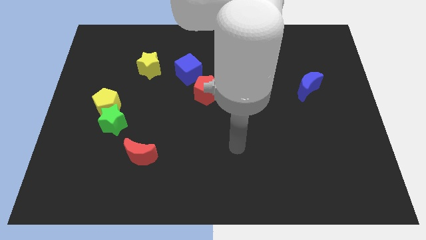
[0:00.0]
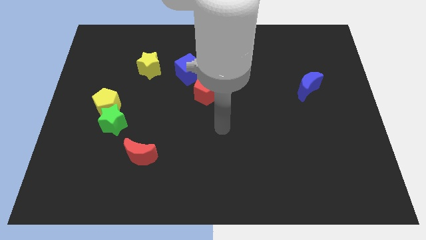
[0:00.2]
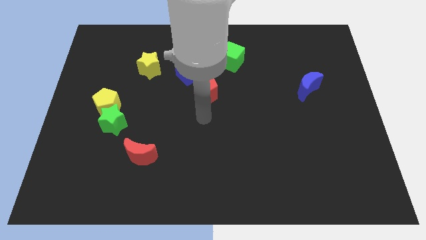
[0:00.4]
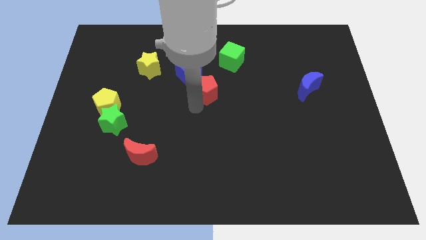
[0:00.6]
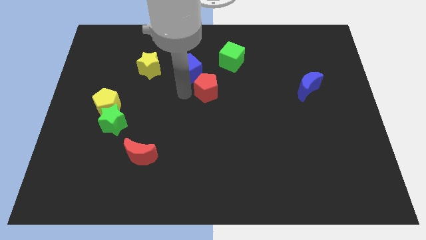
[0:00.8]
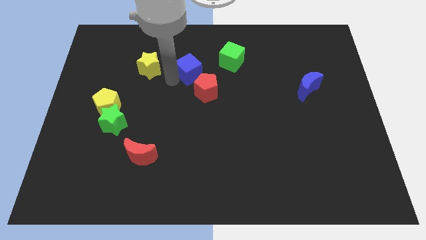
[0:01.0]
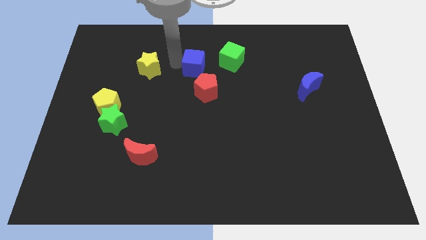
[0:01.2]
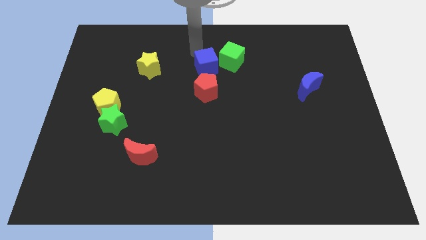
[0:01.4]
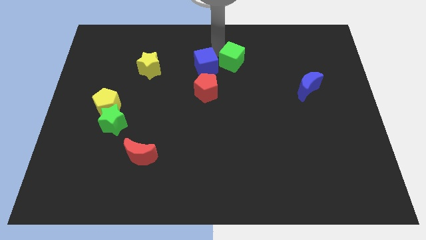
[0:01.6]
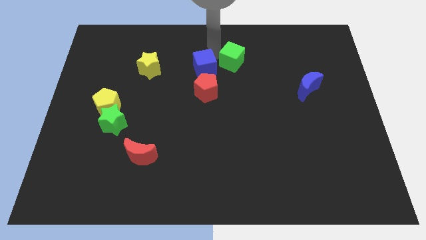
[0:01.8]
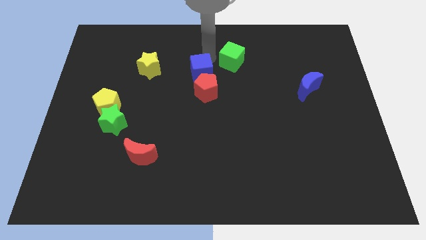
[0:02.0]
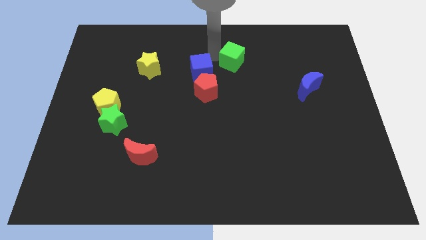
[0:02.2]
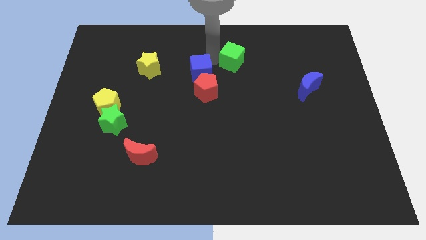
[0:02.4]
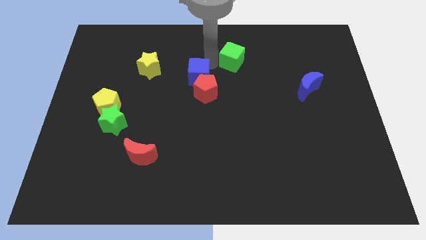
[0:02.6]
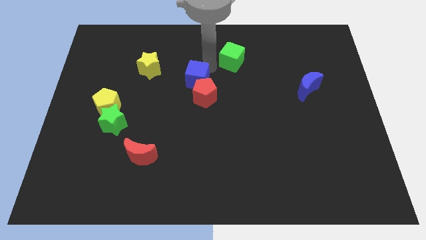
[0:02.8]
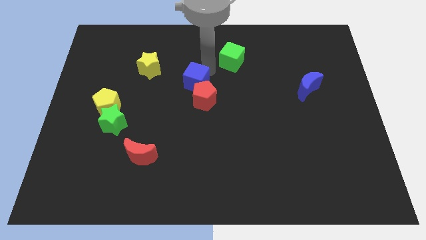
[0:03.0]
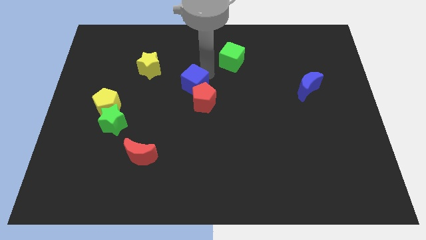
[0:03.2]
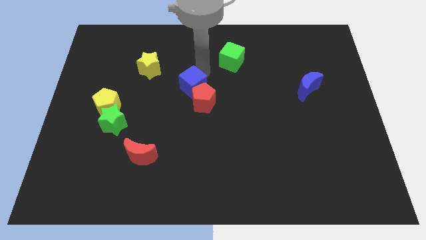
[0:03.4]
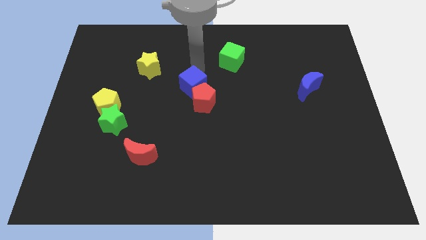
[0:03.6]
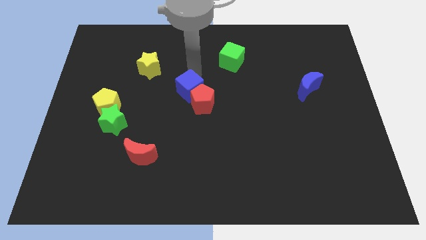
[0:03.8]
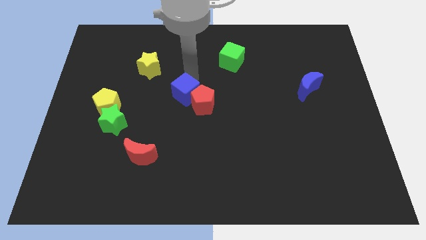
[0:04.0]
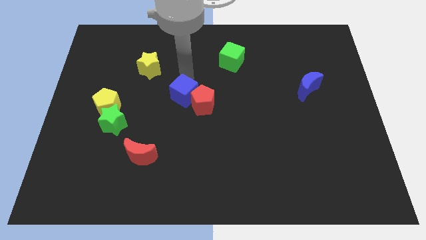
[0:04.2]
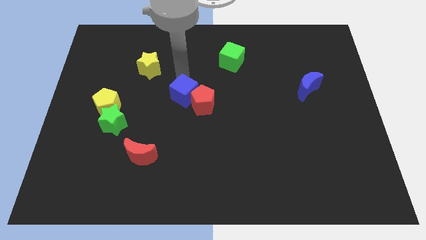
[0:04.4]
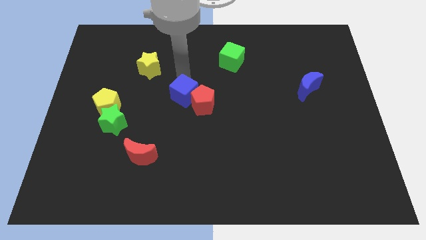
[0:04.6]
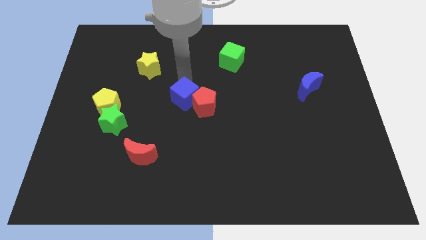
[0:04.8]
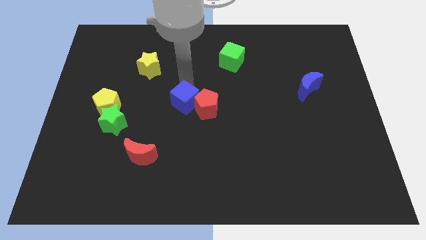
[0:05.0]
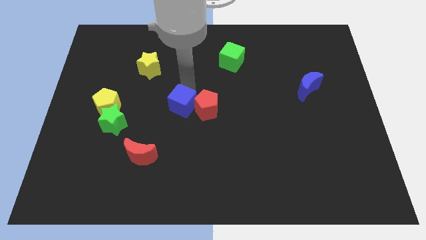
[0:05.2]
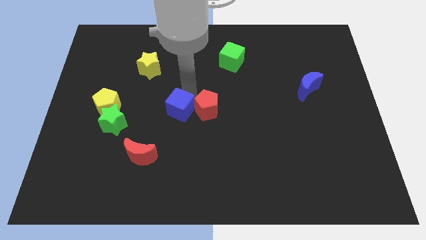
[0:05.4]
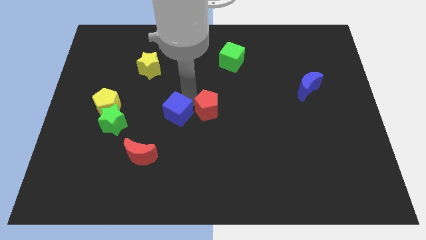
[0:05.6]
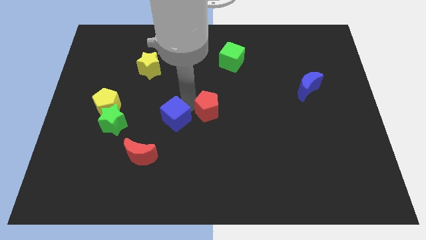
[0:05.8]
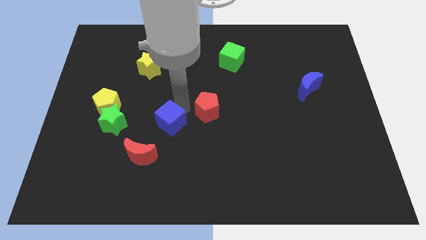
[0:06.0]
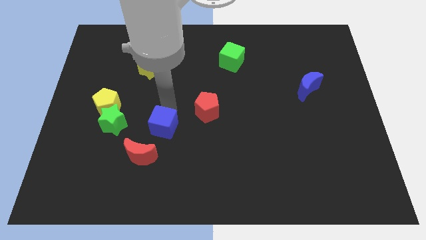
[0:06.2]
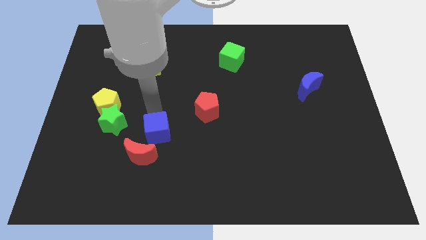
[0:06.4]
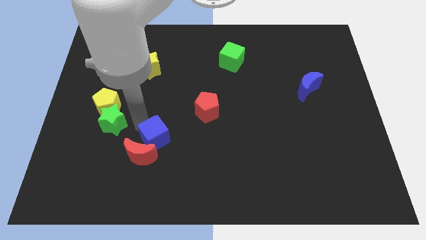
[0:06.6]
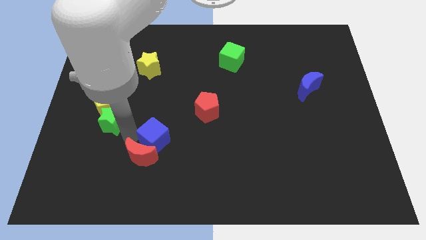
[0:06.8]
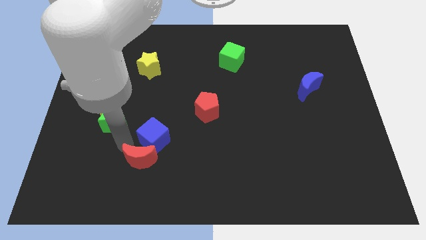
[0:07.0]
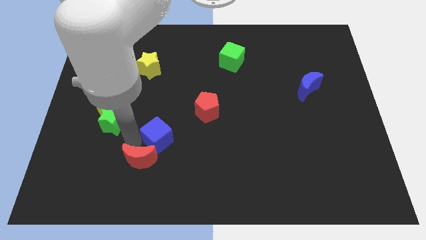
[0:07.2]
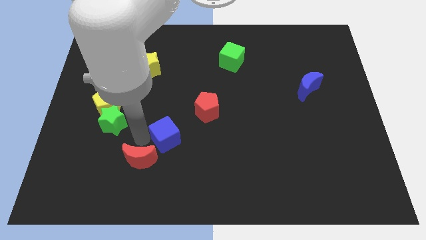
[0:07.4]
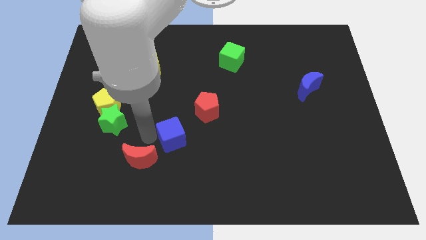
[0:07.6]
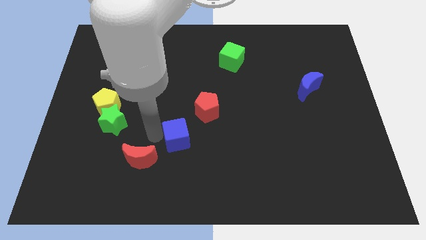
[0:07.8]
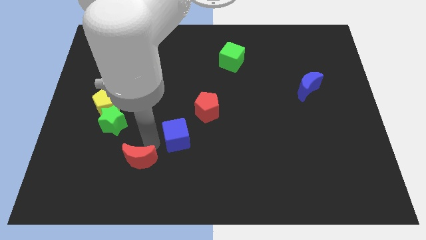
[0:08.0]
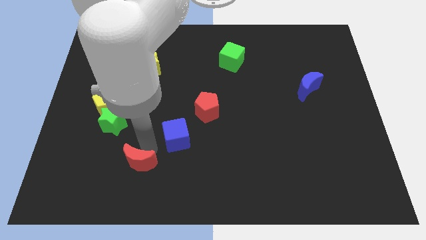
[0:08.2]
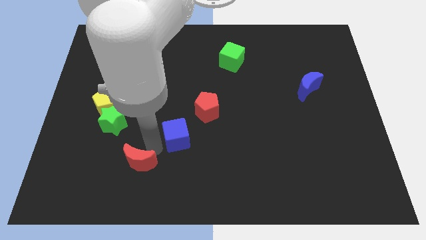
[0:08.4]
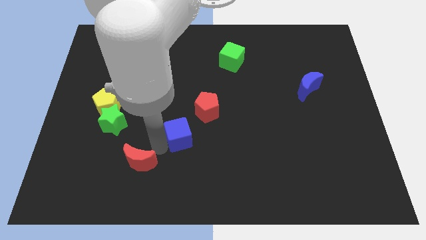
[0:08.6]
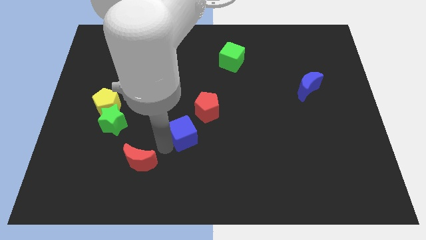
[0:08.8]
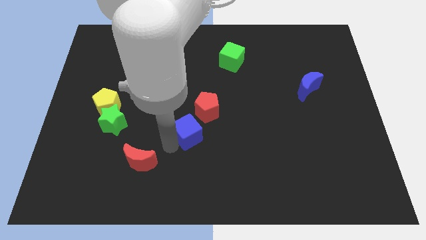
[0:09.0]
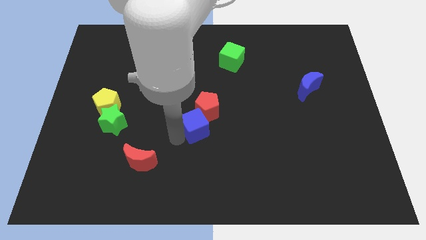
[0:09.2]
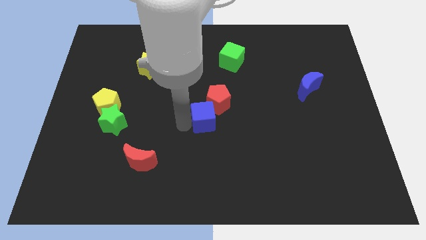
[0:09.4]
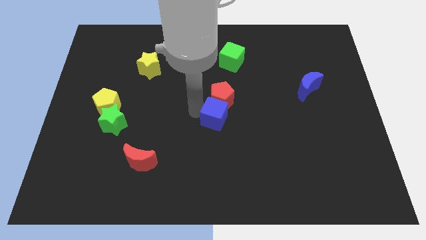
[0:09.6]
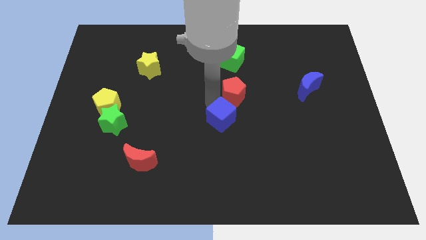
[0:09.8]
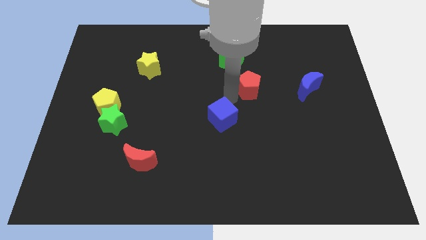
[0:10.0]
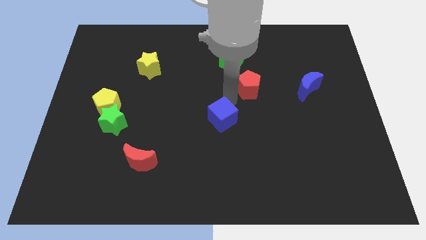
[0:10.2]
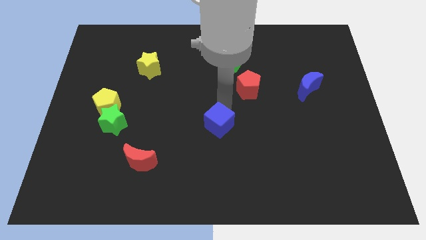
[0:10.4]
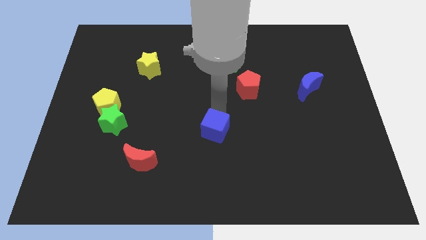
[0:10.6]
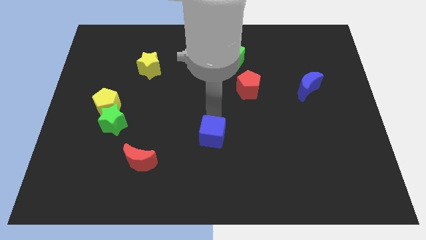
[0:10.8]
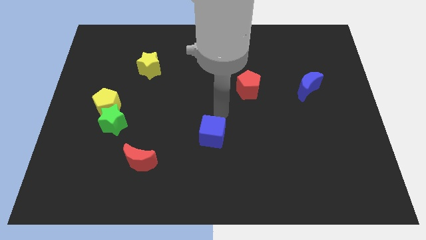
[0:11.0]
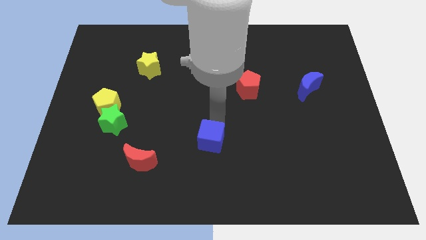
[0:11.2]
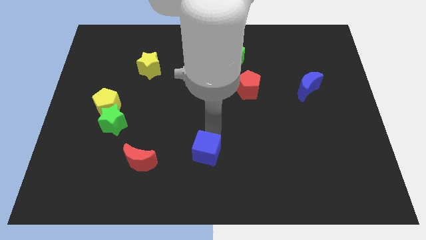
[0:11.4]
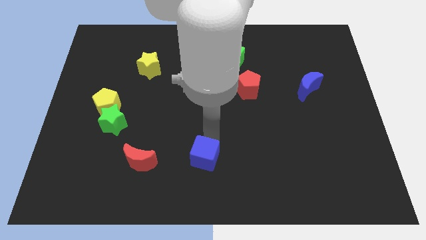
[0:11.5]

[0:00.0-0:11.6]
put the blue cube to the bottom
